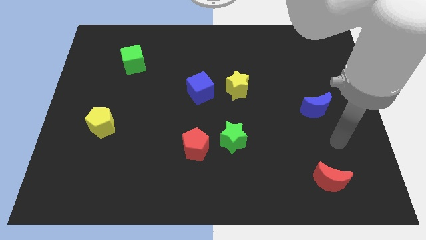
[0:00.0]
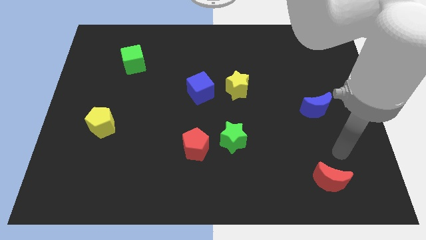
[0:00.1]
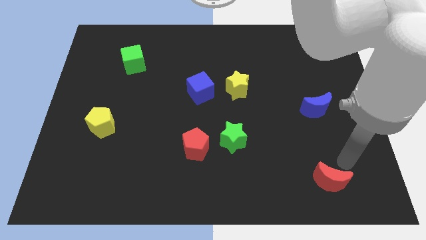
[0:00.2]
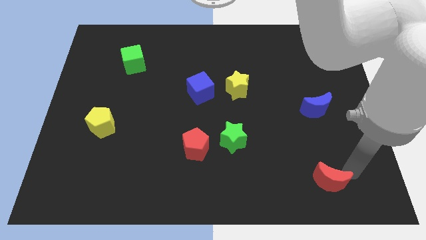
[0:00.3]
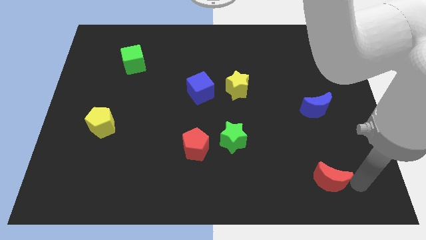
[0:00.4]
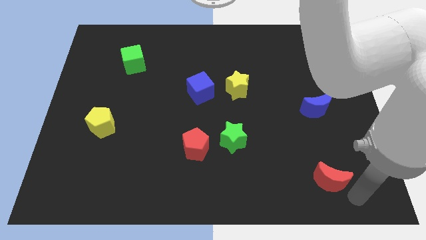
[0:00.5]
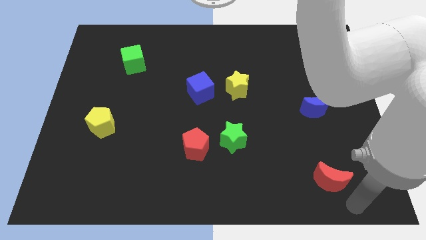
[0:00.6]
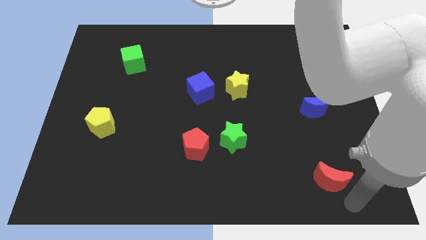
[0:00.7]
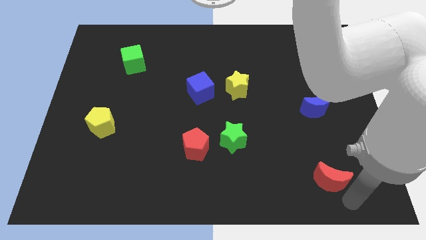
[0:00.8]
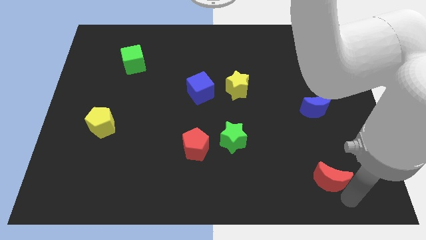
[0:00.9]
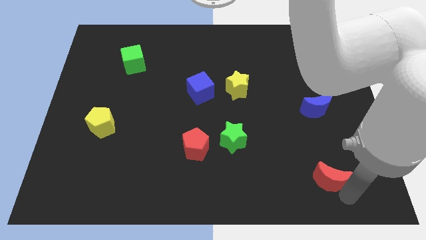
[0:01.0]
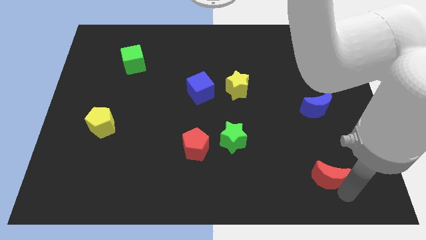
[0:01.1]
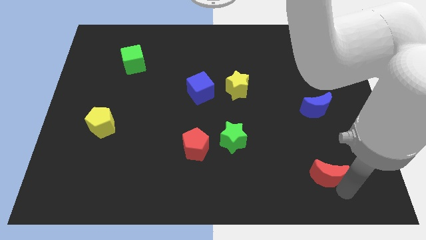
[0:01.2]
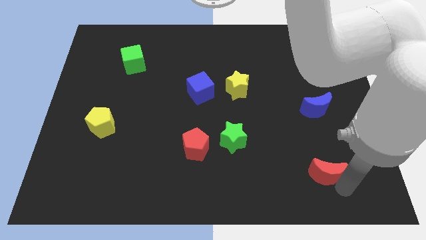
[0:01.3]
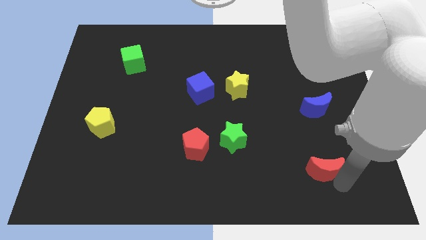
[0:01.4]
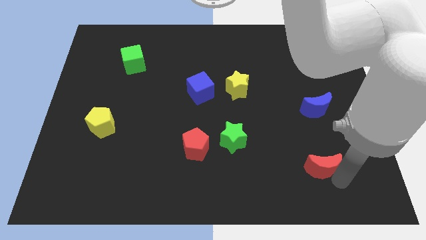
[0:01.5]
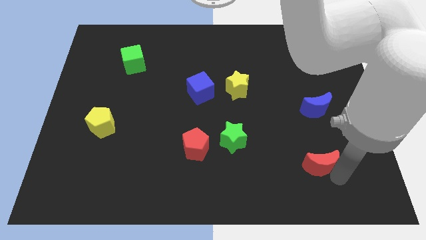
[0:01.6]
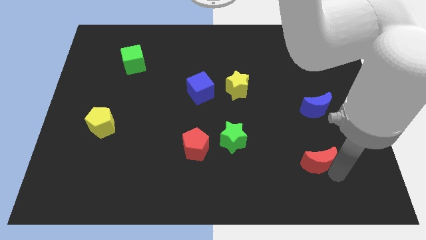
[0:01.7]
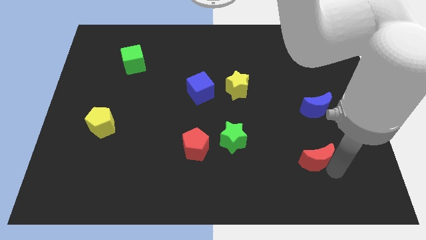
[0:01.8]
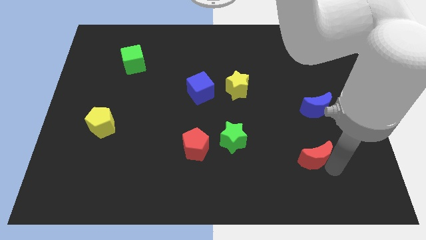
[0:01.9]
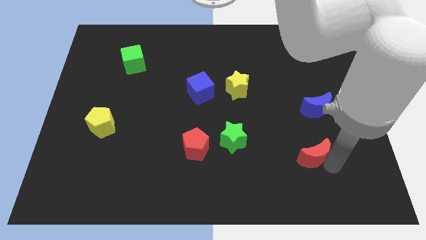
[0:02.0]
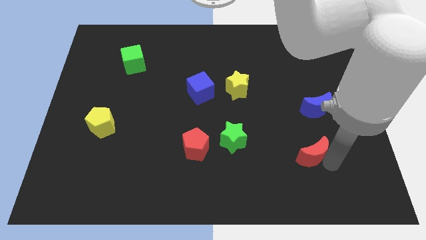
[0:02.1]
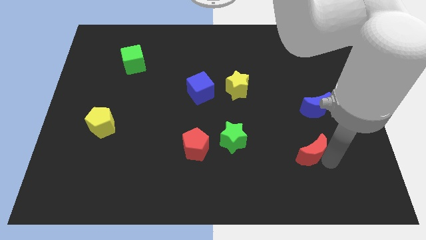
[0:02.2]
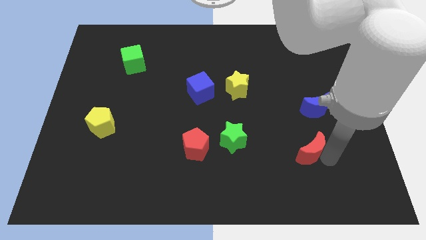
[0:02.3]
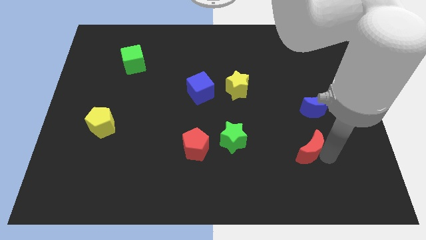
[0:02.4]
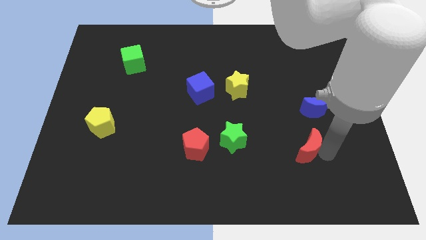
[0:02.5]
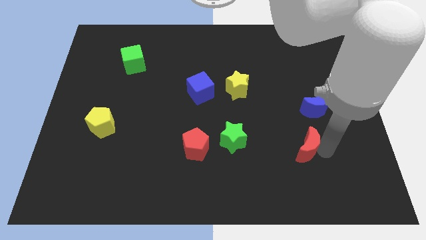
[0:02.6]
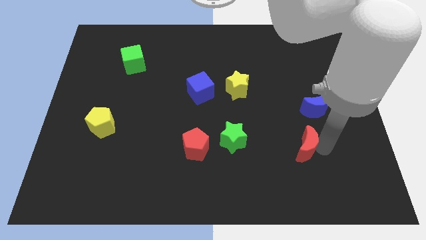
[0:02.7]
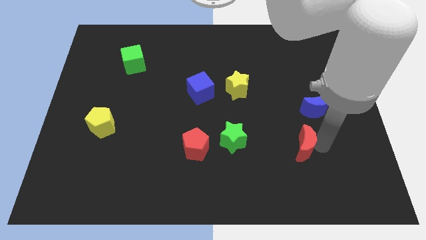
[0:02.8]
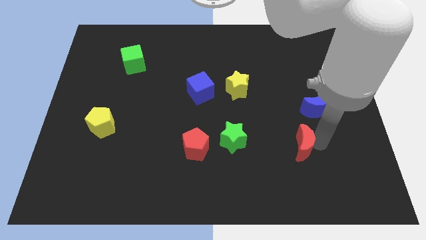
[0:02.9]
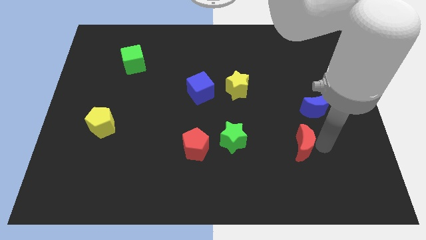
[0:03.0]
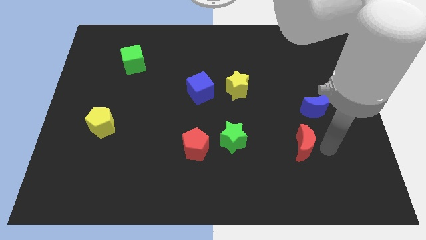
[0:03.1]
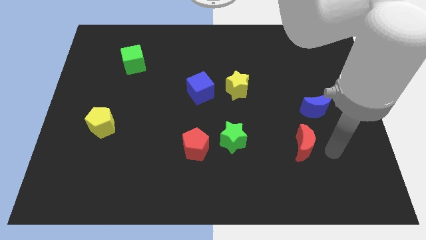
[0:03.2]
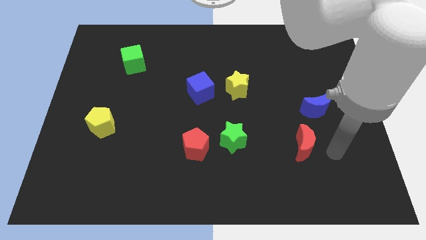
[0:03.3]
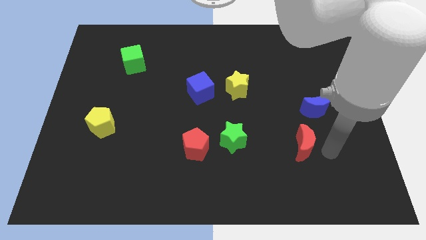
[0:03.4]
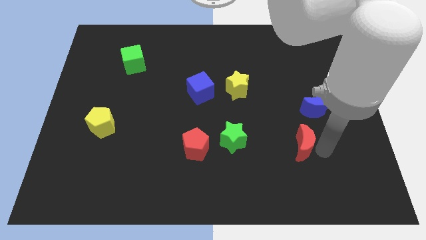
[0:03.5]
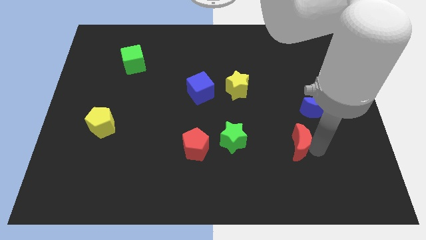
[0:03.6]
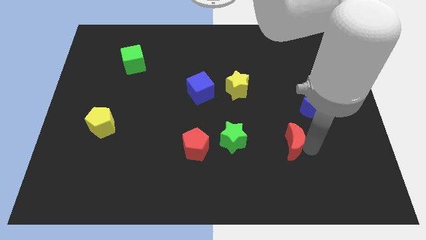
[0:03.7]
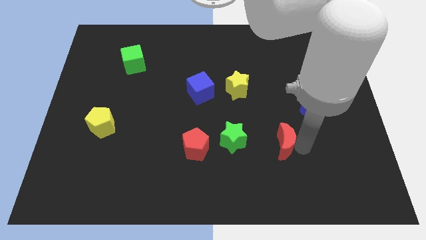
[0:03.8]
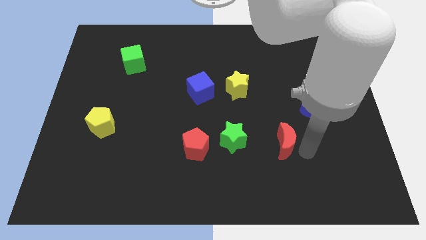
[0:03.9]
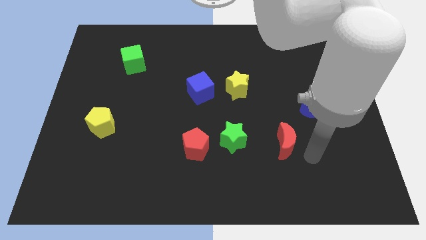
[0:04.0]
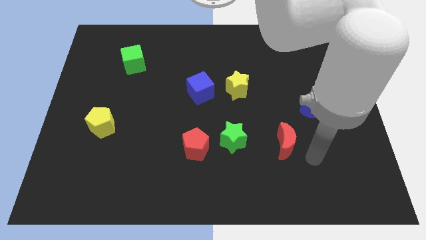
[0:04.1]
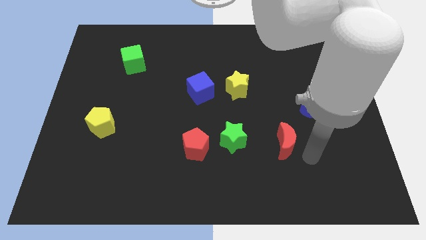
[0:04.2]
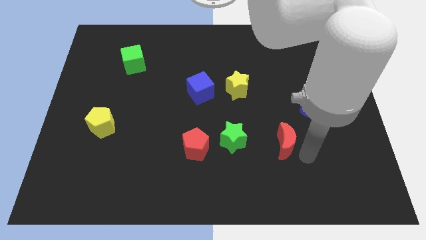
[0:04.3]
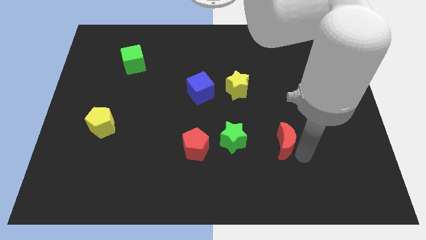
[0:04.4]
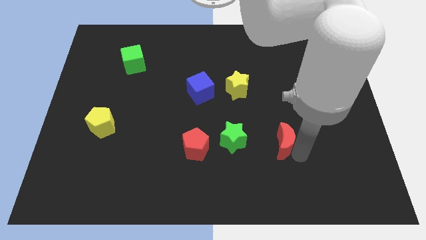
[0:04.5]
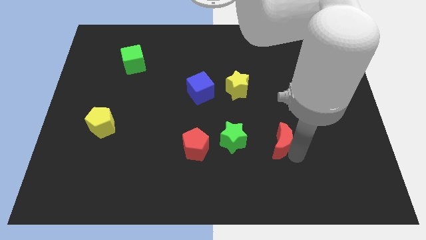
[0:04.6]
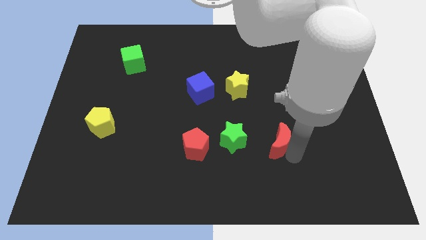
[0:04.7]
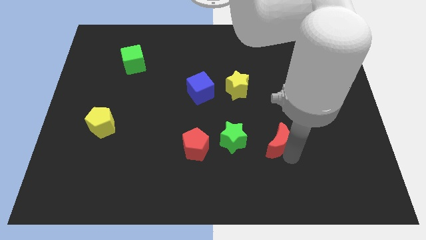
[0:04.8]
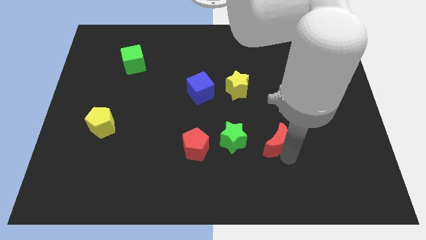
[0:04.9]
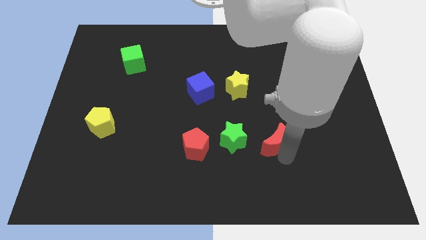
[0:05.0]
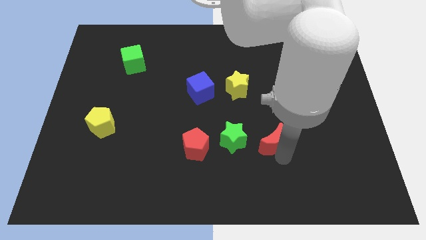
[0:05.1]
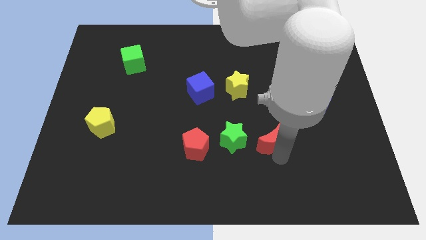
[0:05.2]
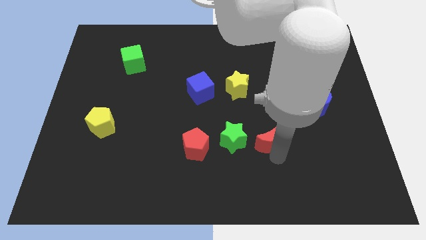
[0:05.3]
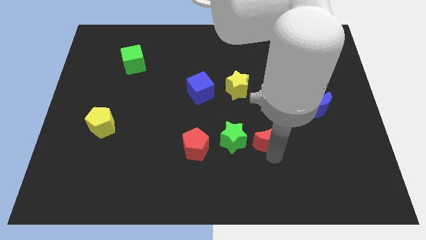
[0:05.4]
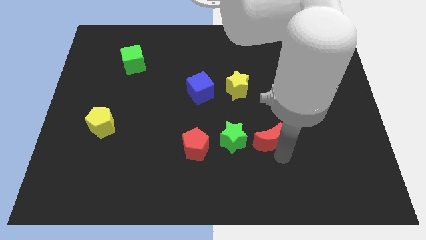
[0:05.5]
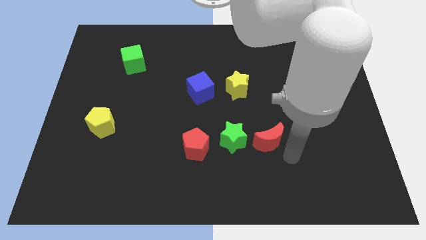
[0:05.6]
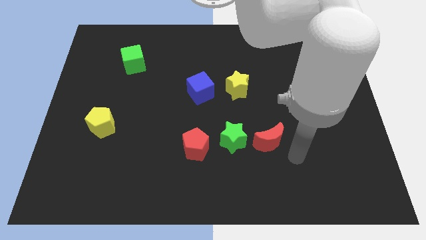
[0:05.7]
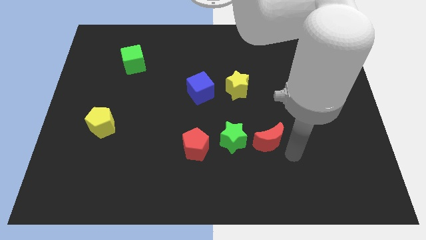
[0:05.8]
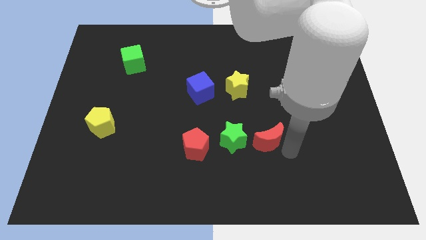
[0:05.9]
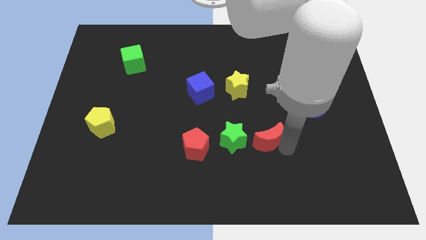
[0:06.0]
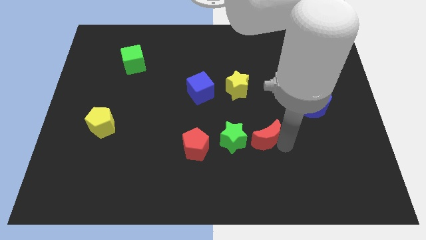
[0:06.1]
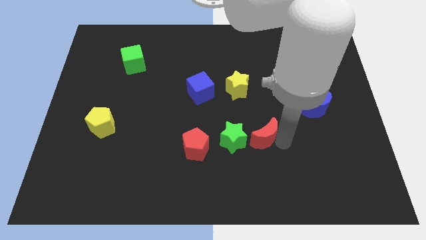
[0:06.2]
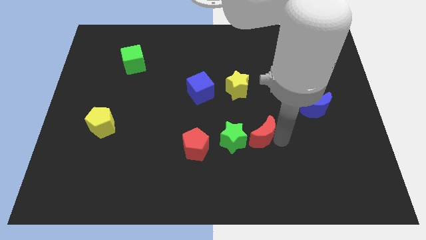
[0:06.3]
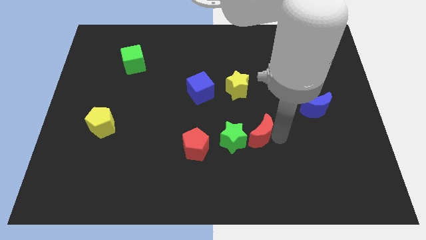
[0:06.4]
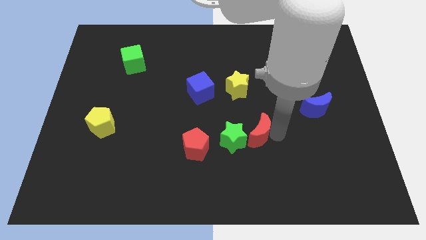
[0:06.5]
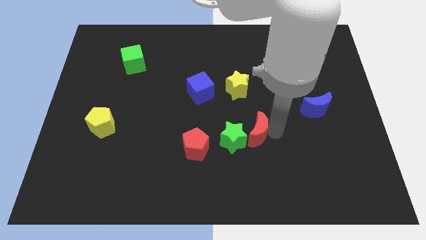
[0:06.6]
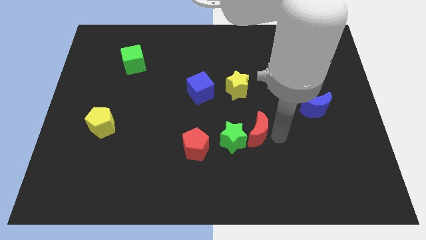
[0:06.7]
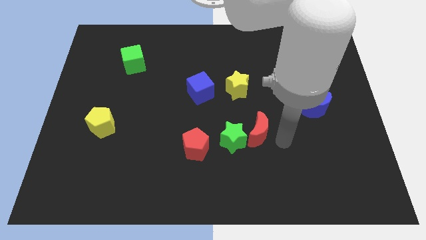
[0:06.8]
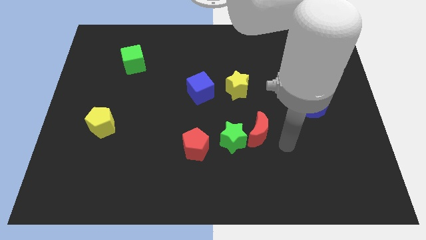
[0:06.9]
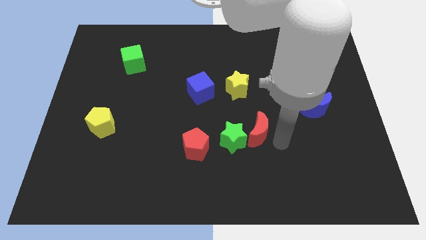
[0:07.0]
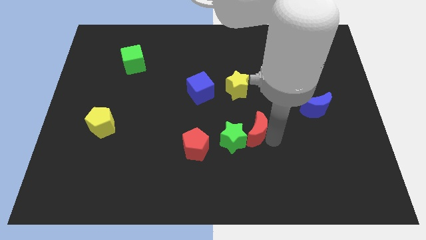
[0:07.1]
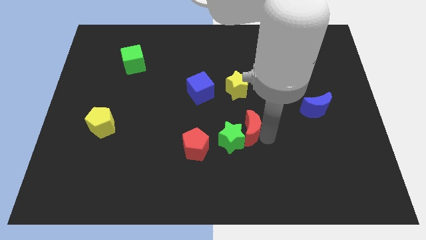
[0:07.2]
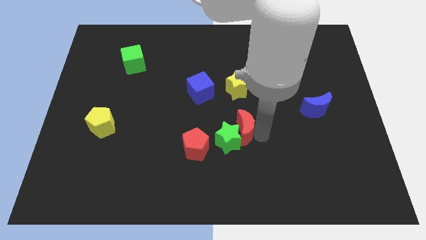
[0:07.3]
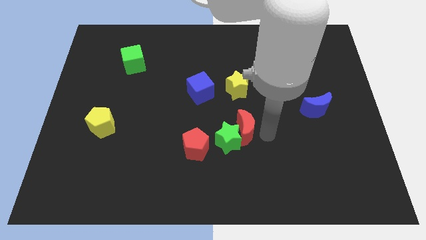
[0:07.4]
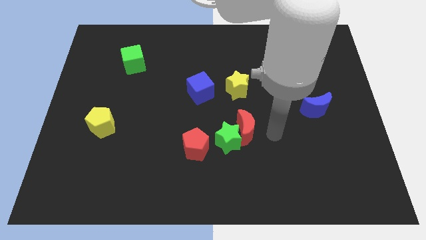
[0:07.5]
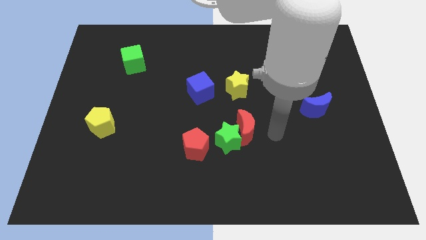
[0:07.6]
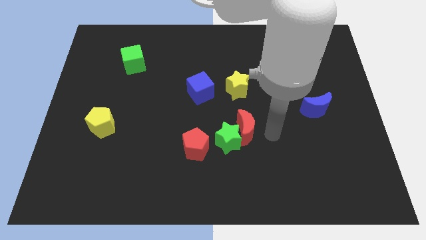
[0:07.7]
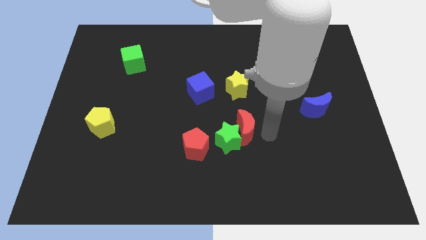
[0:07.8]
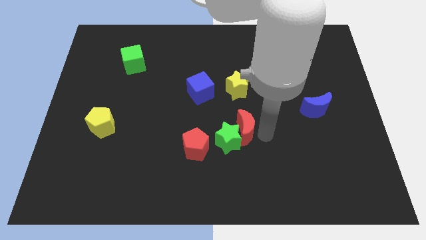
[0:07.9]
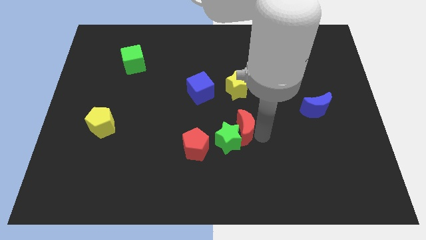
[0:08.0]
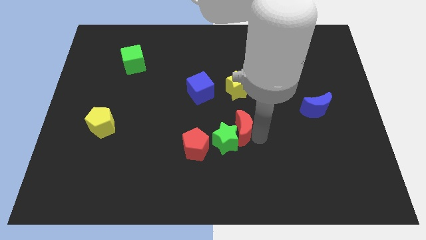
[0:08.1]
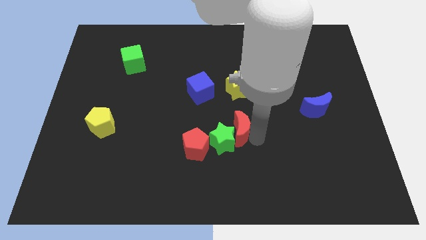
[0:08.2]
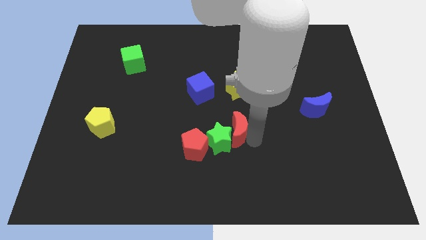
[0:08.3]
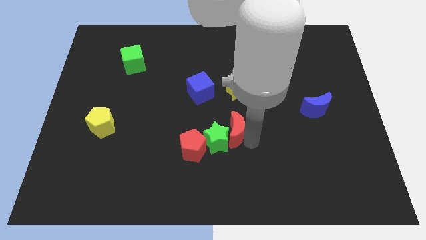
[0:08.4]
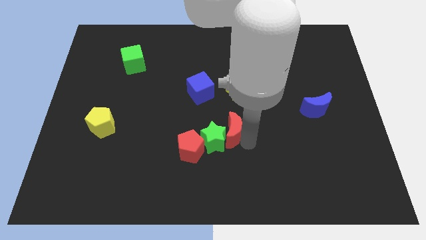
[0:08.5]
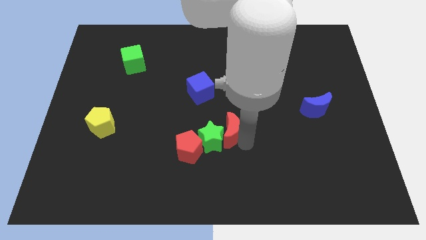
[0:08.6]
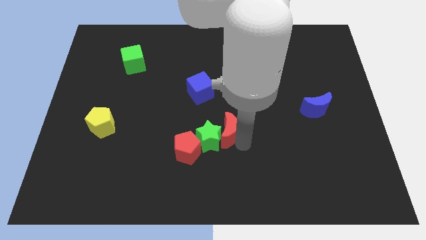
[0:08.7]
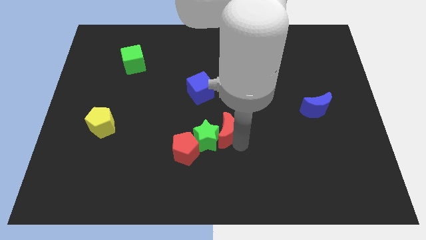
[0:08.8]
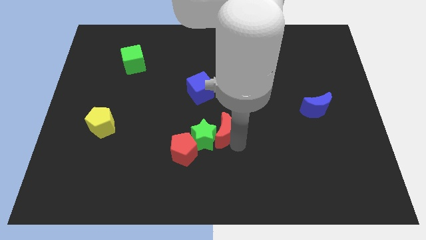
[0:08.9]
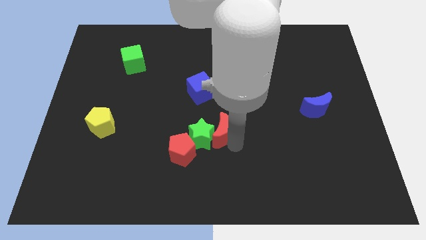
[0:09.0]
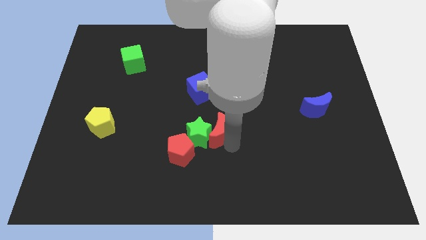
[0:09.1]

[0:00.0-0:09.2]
push the red moon below the blue cube
